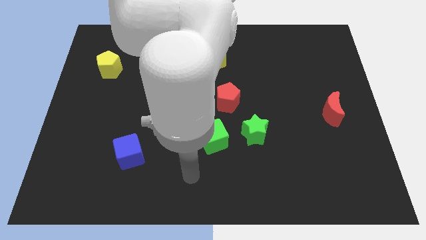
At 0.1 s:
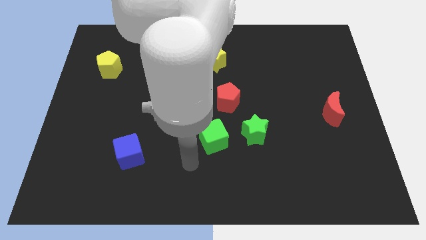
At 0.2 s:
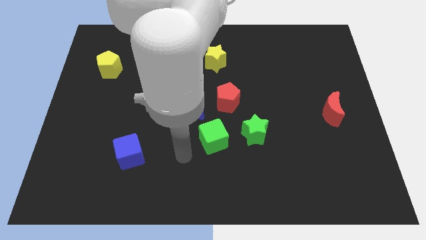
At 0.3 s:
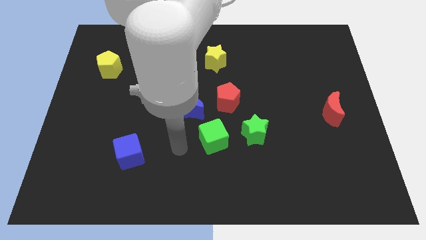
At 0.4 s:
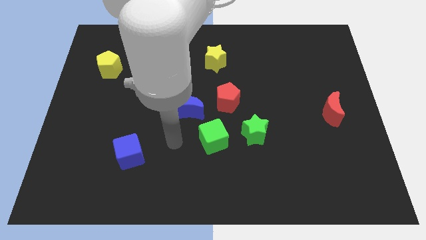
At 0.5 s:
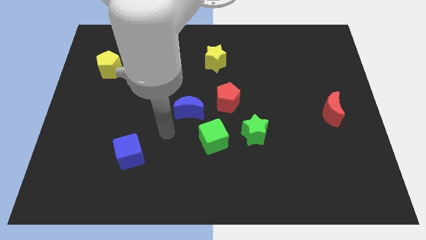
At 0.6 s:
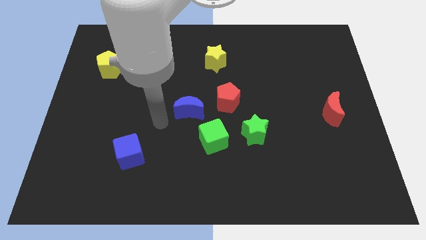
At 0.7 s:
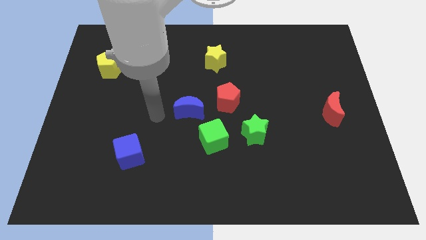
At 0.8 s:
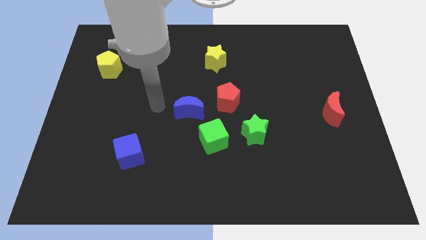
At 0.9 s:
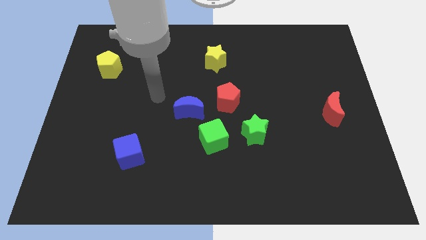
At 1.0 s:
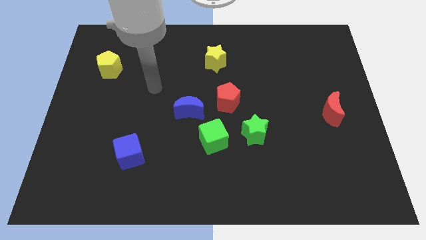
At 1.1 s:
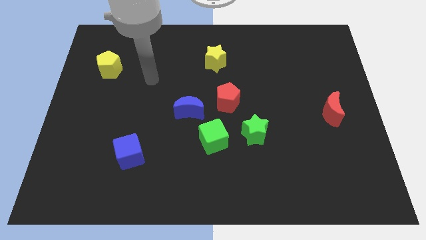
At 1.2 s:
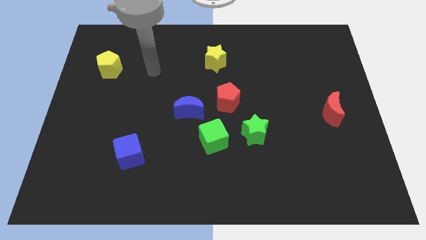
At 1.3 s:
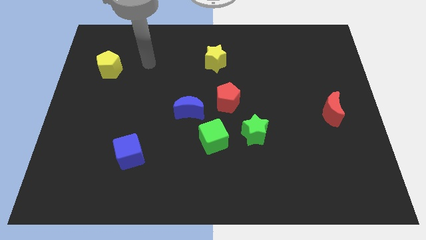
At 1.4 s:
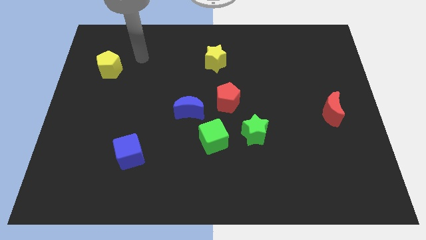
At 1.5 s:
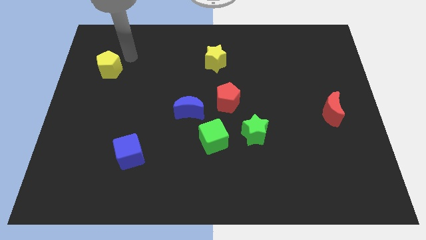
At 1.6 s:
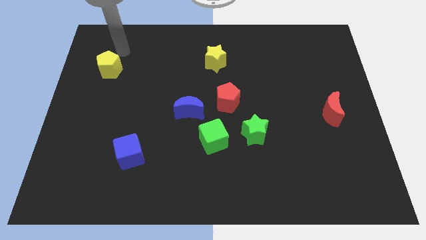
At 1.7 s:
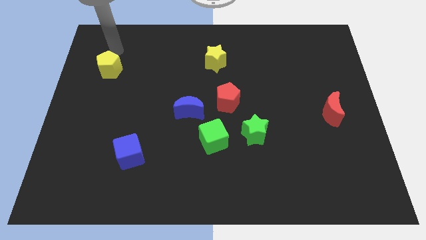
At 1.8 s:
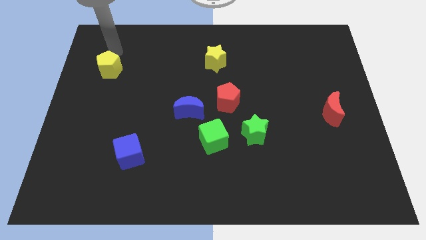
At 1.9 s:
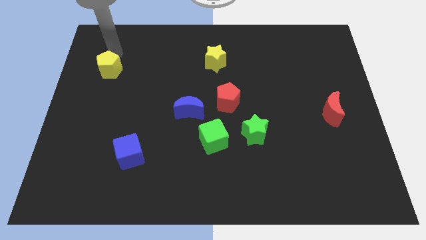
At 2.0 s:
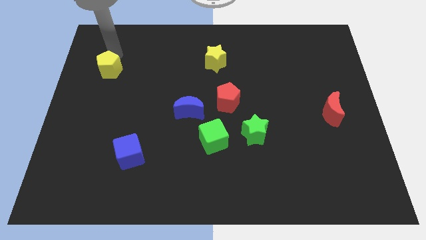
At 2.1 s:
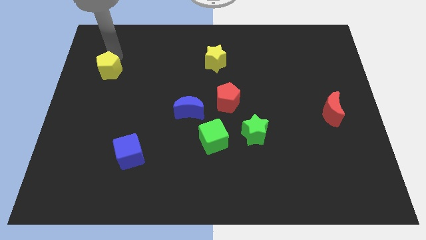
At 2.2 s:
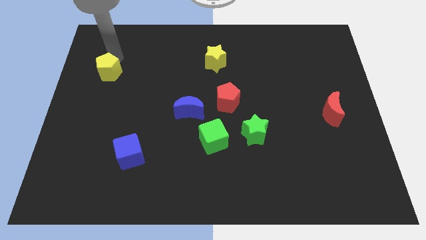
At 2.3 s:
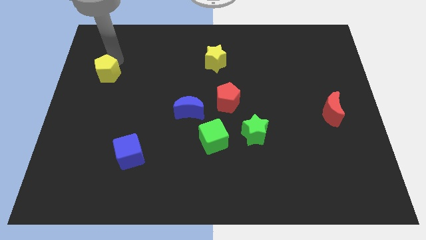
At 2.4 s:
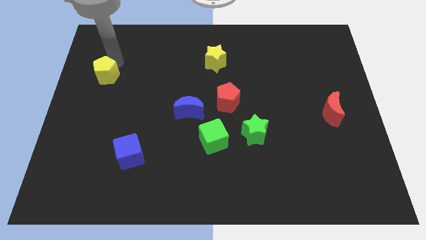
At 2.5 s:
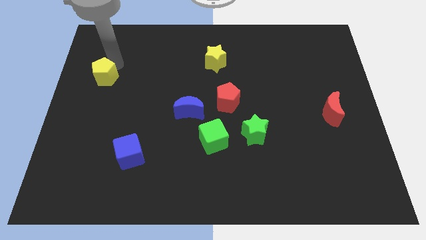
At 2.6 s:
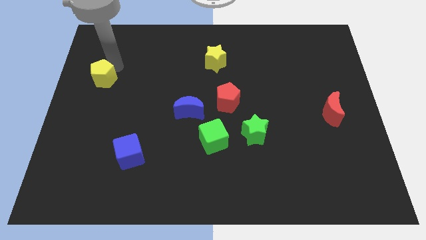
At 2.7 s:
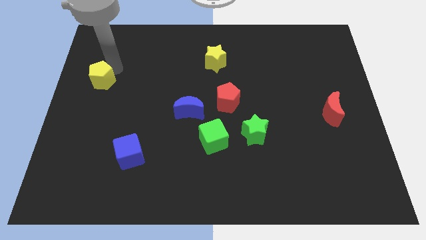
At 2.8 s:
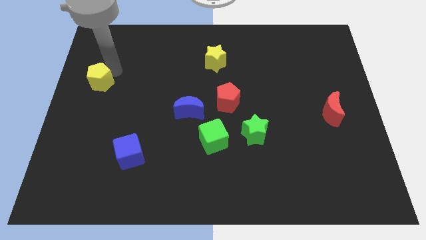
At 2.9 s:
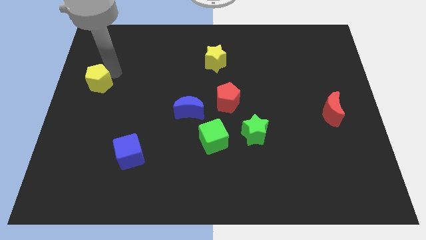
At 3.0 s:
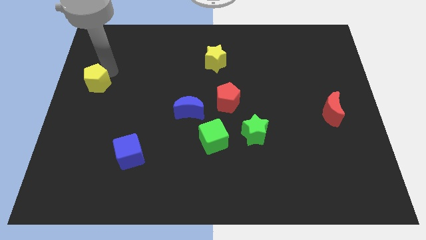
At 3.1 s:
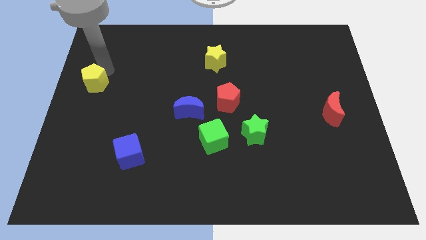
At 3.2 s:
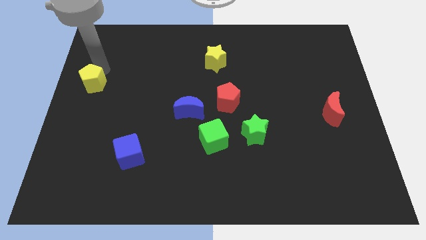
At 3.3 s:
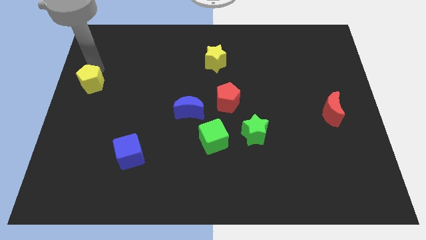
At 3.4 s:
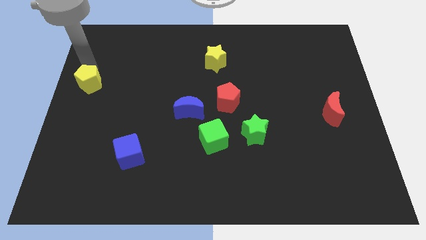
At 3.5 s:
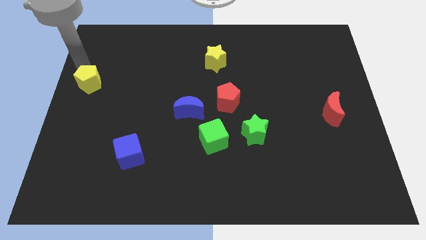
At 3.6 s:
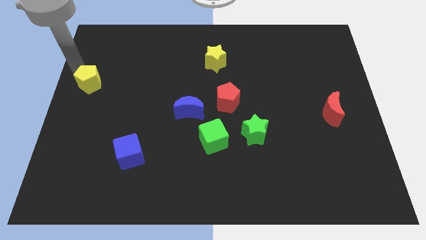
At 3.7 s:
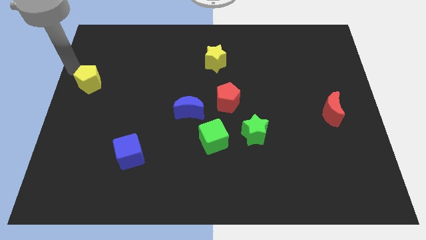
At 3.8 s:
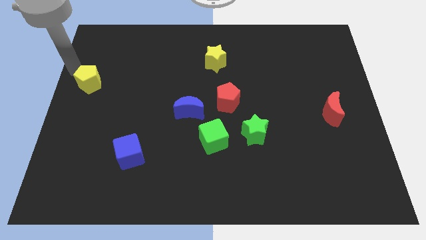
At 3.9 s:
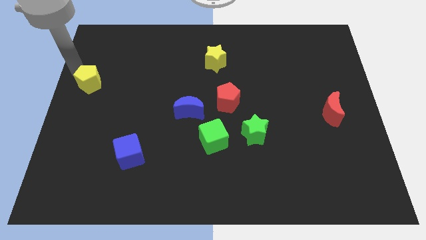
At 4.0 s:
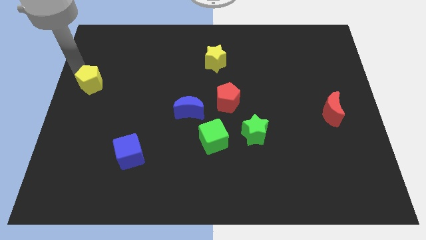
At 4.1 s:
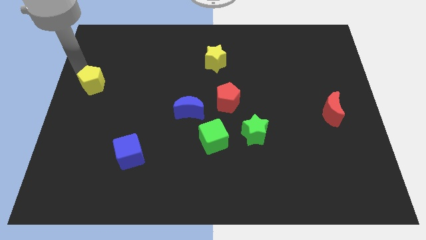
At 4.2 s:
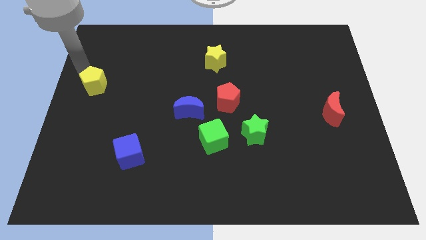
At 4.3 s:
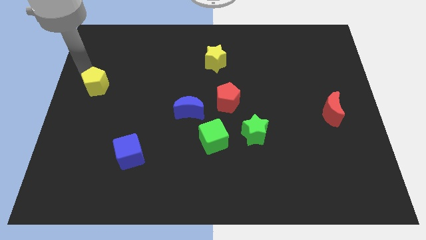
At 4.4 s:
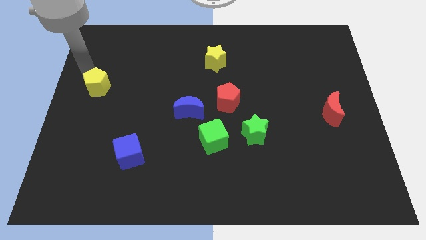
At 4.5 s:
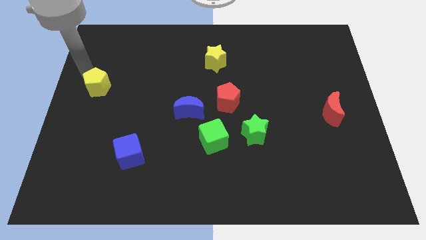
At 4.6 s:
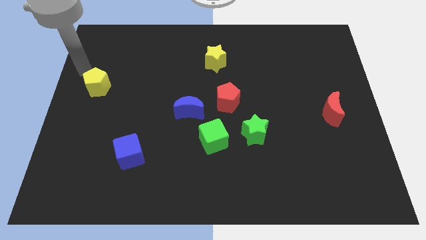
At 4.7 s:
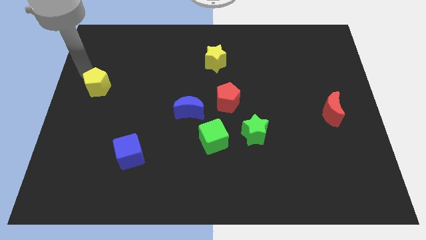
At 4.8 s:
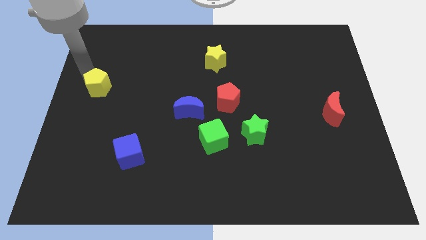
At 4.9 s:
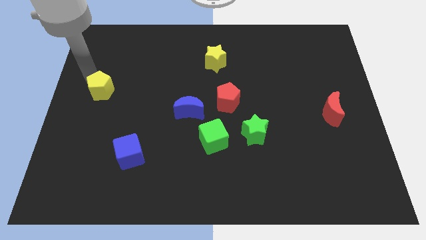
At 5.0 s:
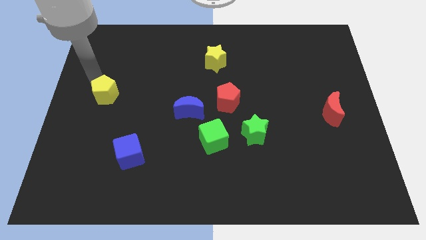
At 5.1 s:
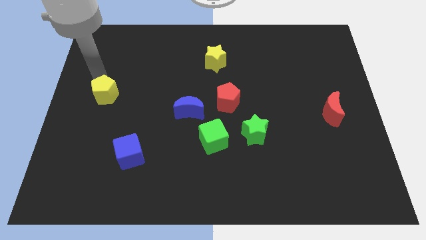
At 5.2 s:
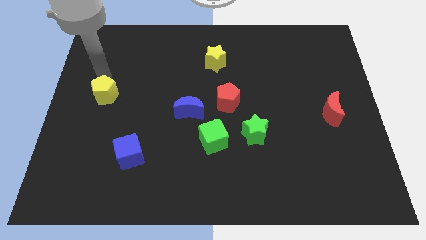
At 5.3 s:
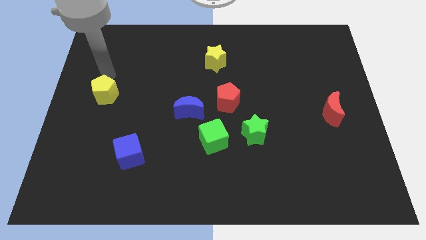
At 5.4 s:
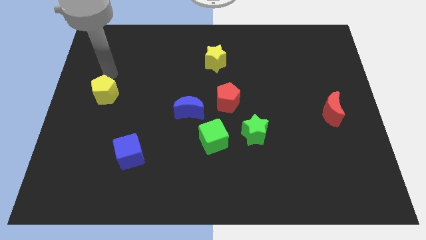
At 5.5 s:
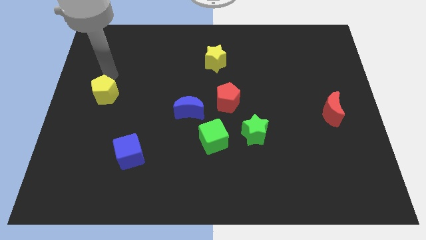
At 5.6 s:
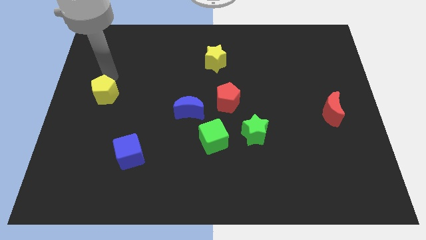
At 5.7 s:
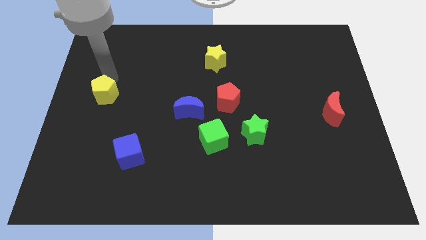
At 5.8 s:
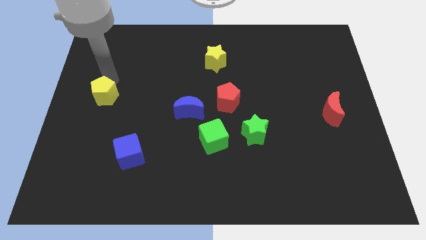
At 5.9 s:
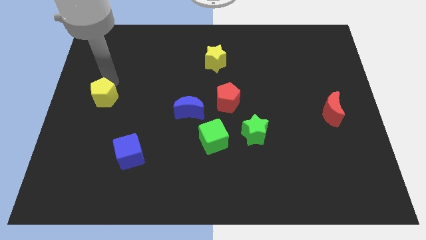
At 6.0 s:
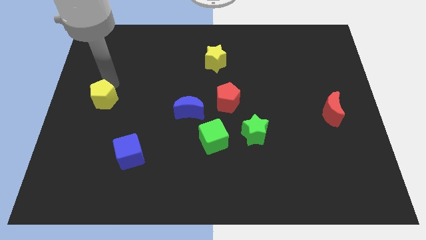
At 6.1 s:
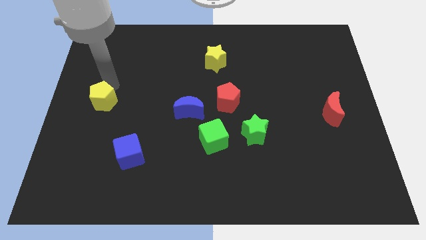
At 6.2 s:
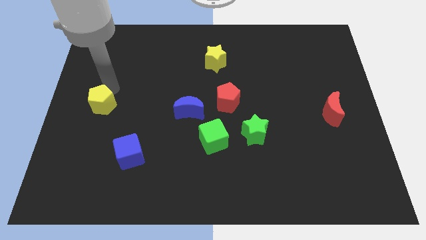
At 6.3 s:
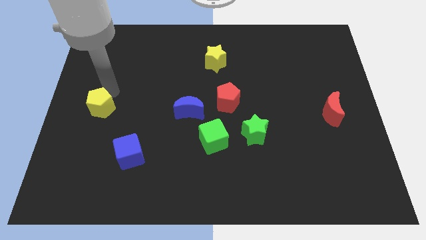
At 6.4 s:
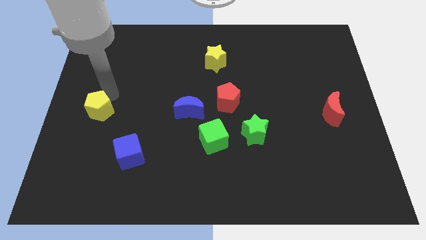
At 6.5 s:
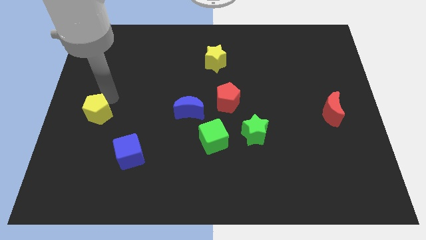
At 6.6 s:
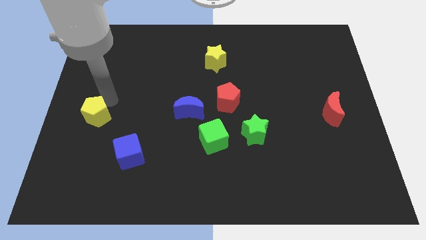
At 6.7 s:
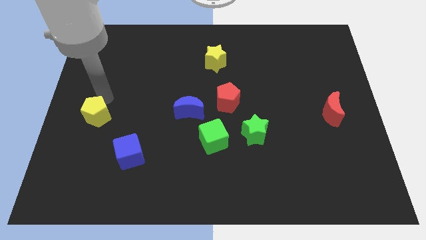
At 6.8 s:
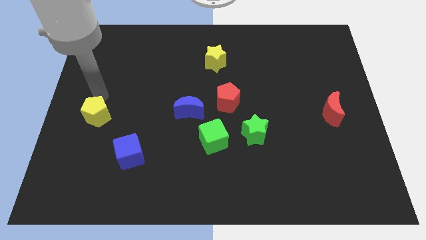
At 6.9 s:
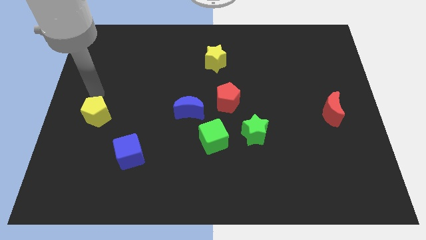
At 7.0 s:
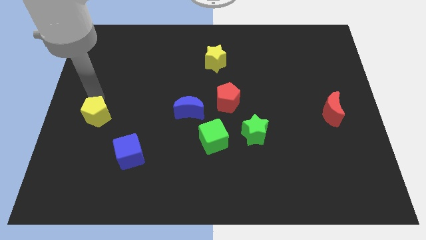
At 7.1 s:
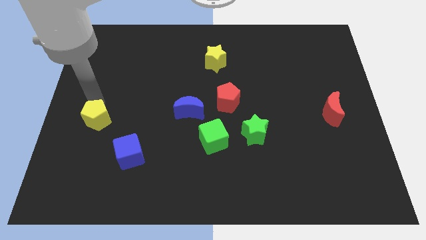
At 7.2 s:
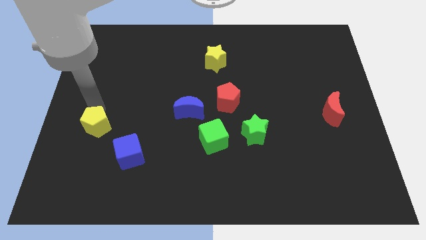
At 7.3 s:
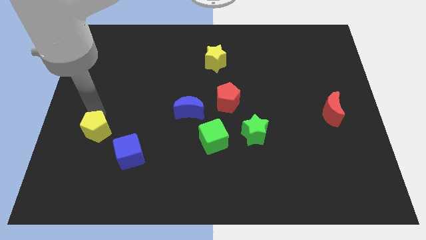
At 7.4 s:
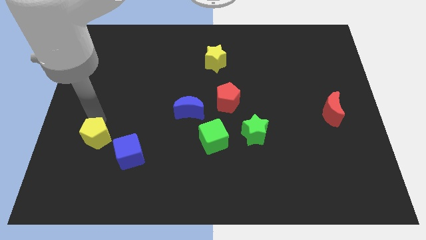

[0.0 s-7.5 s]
slide the yellow pentagon downwards

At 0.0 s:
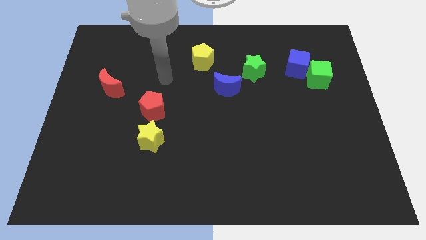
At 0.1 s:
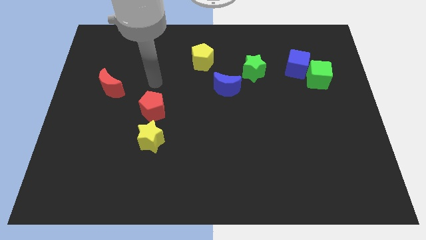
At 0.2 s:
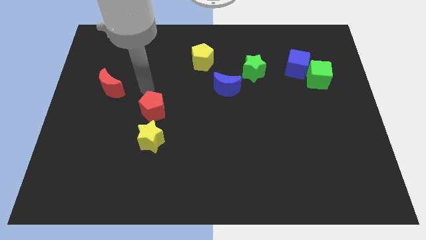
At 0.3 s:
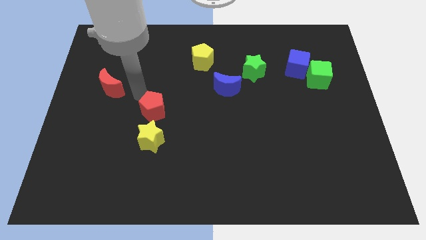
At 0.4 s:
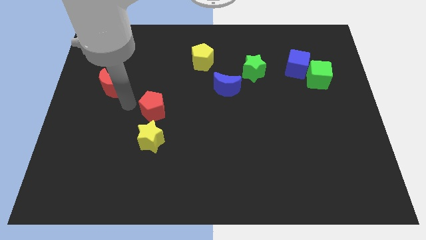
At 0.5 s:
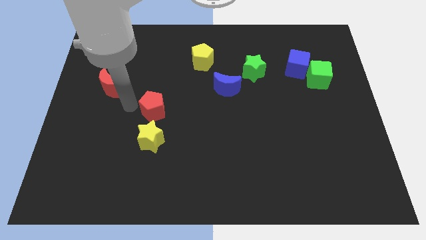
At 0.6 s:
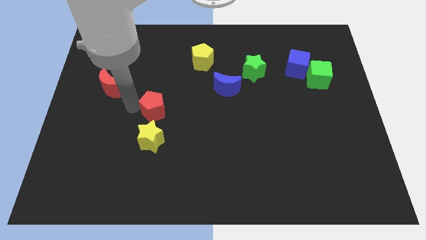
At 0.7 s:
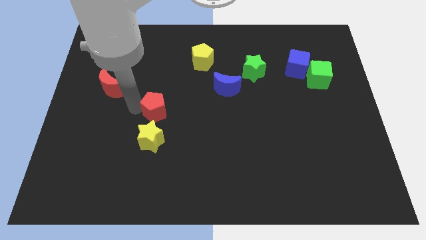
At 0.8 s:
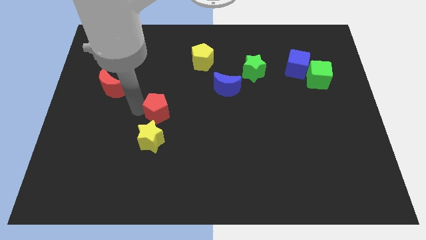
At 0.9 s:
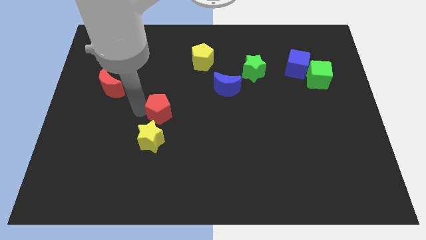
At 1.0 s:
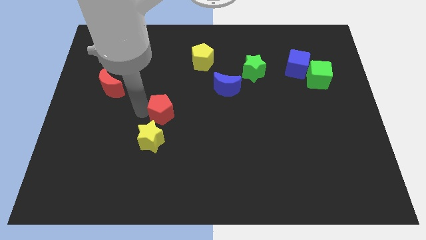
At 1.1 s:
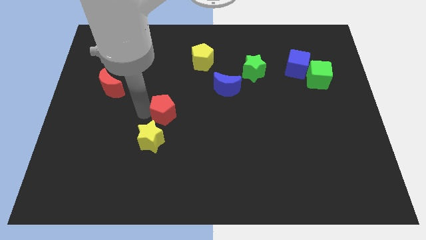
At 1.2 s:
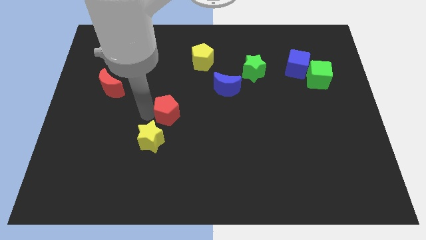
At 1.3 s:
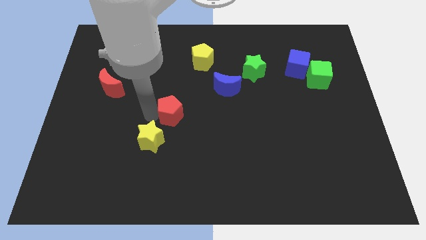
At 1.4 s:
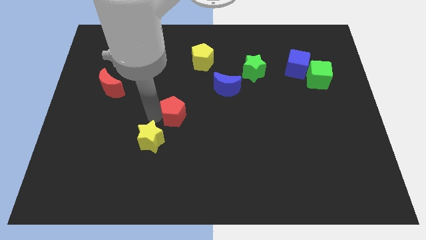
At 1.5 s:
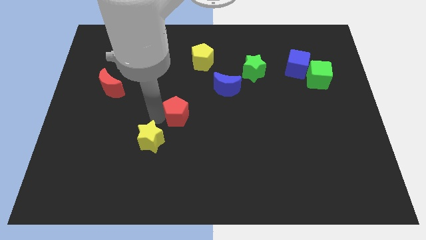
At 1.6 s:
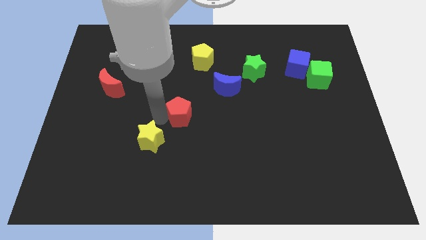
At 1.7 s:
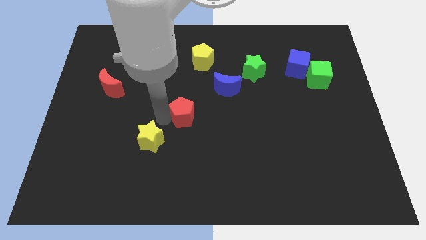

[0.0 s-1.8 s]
move the red pentagon to the right a little bit
